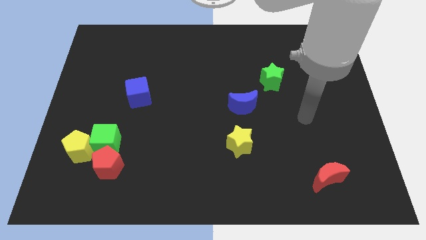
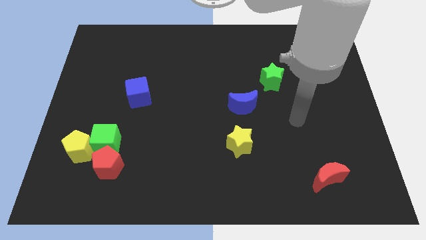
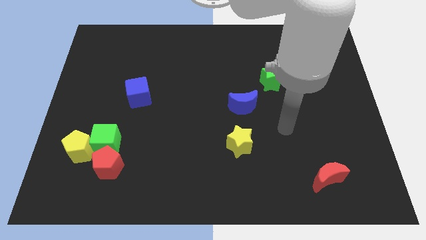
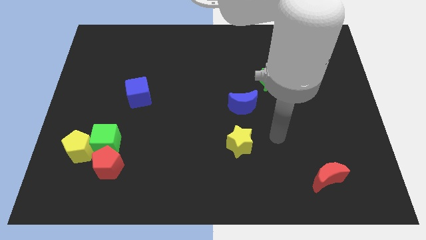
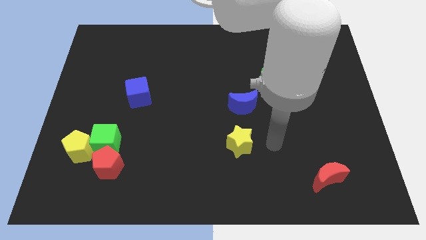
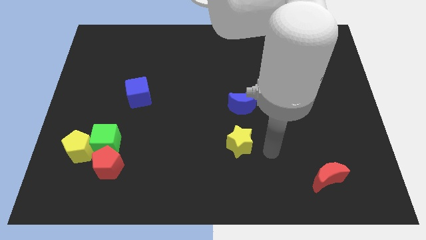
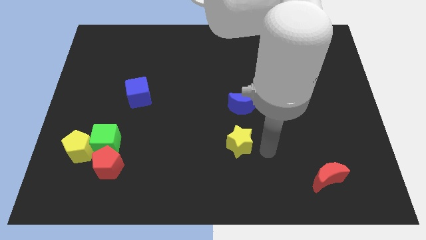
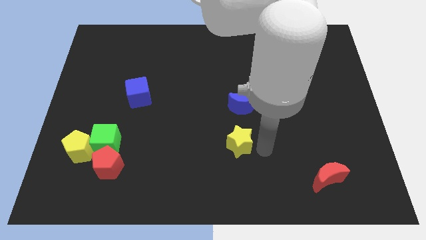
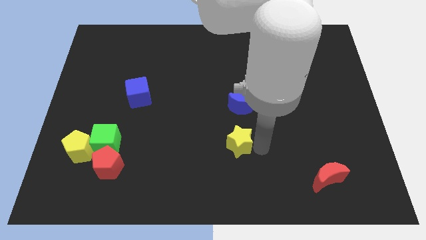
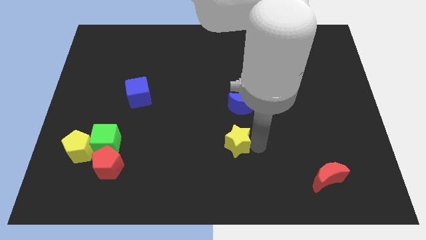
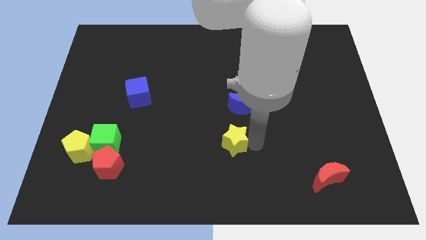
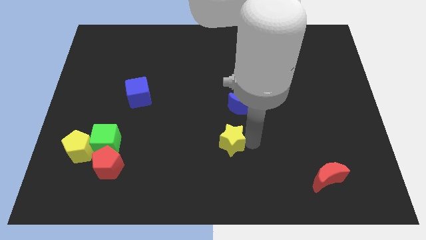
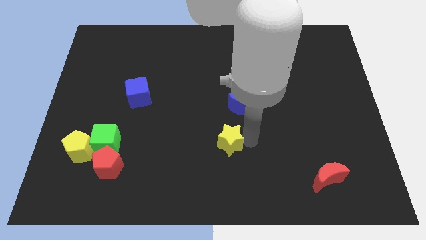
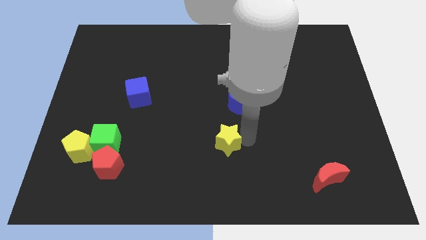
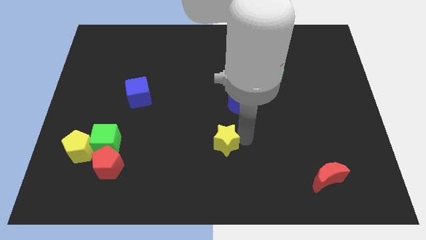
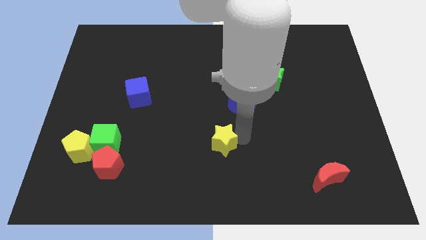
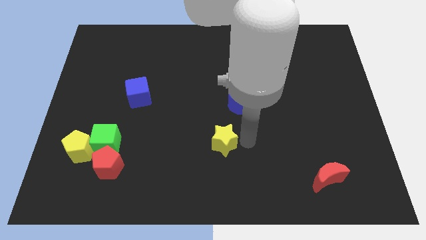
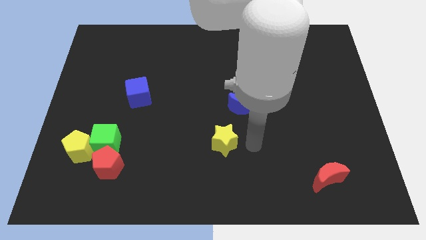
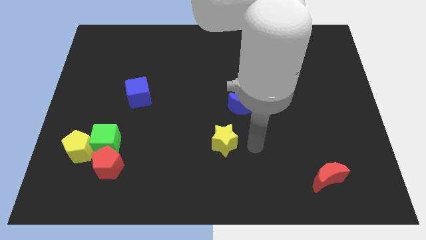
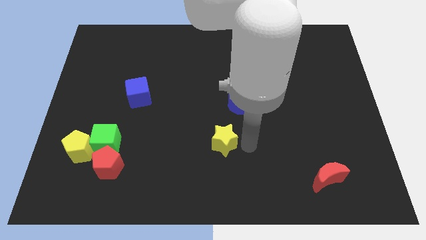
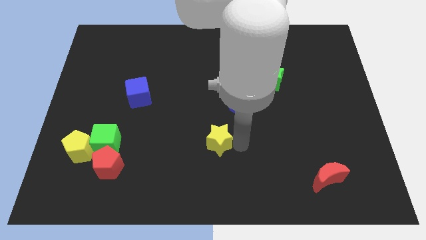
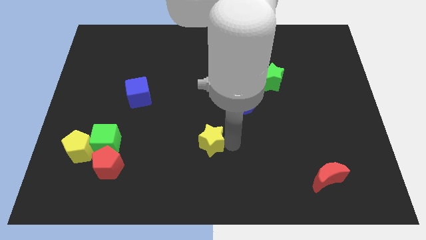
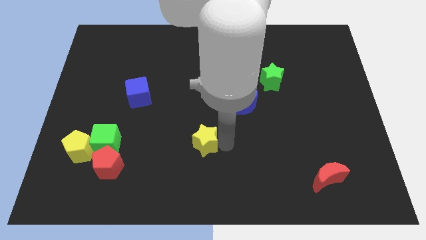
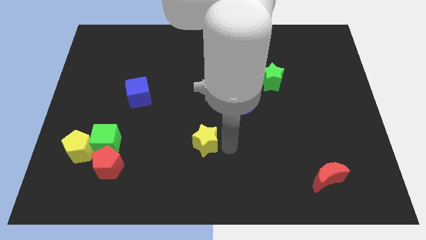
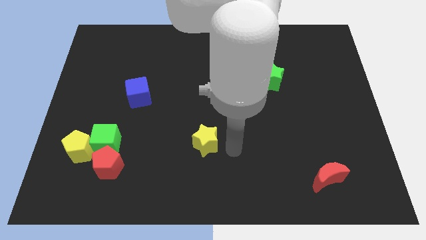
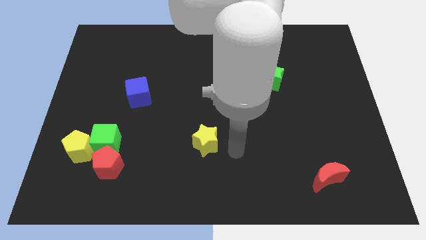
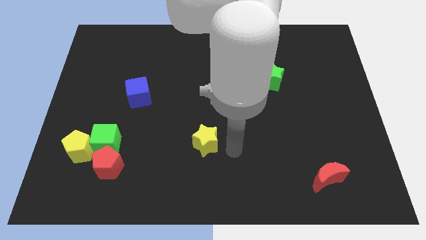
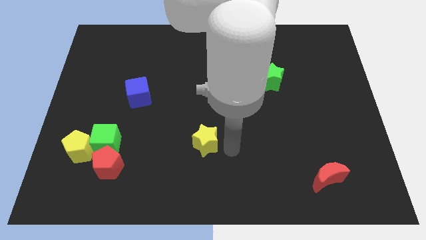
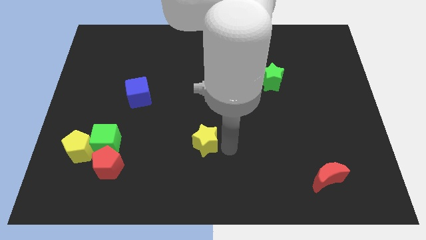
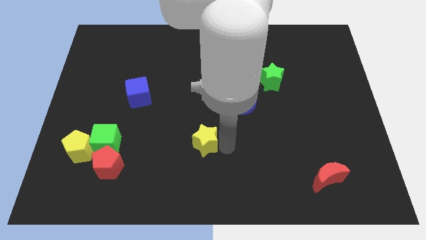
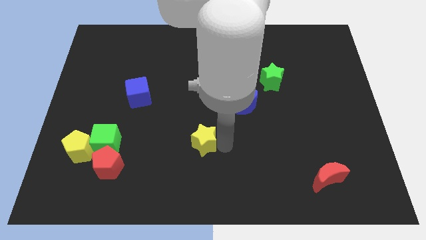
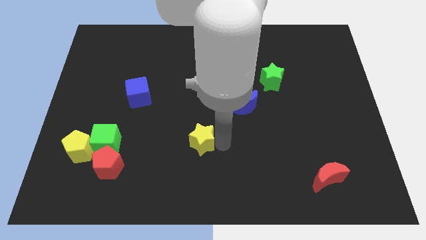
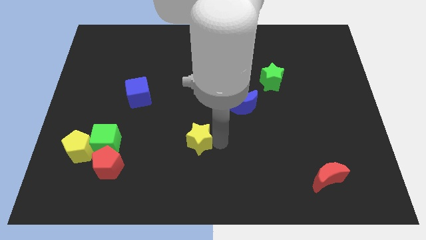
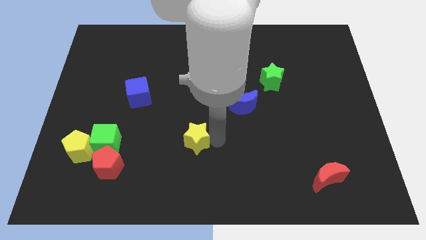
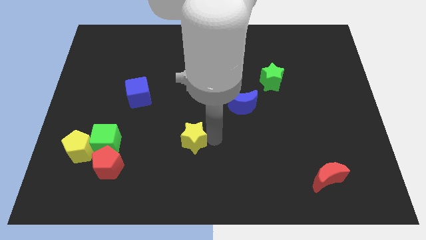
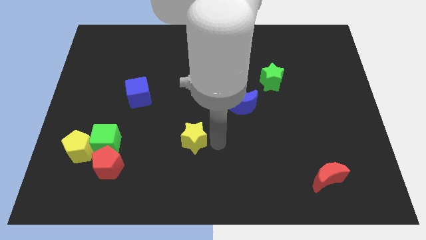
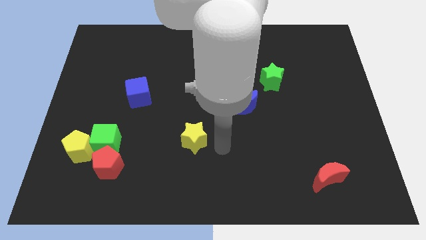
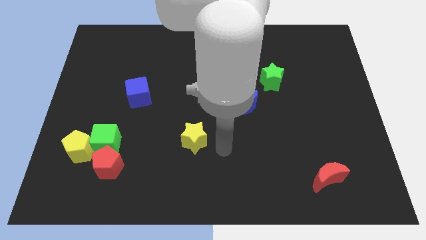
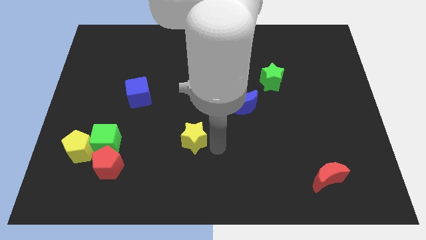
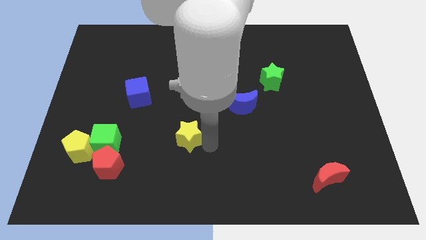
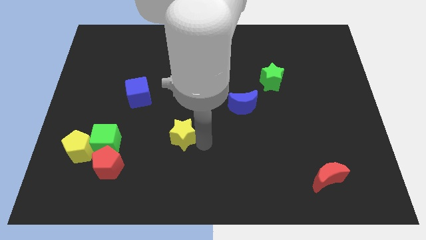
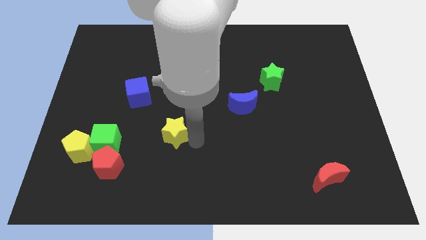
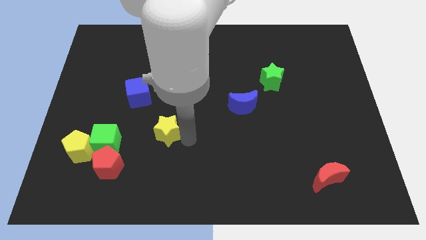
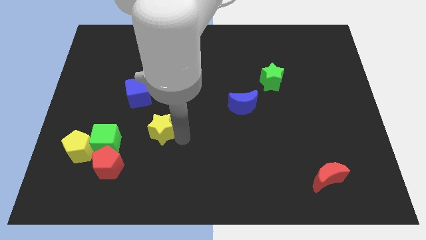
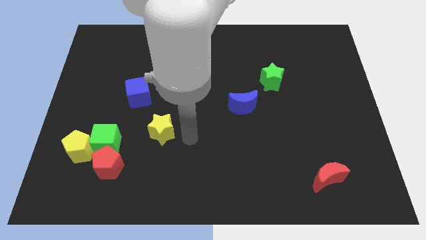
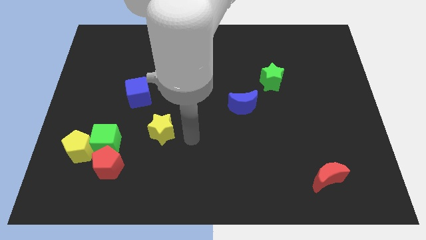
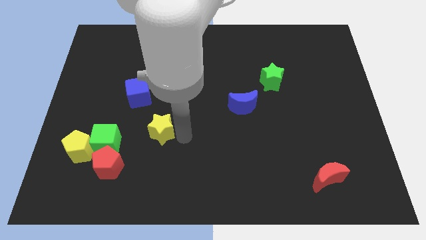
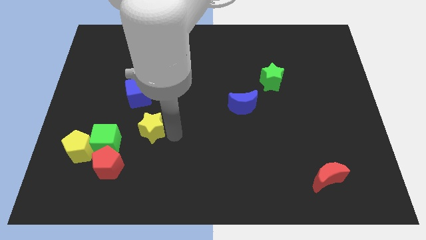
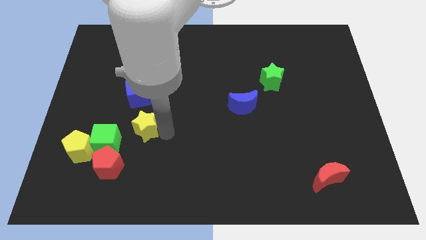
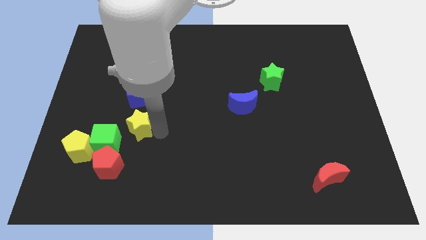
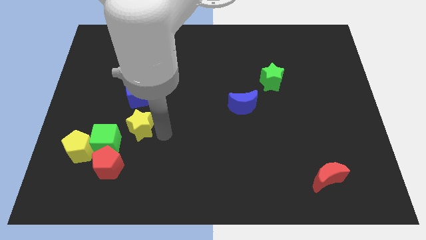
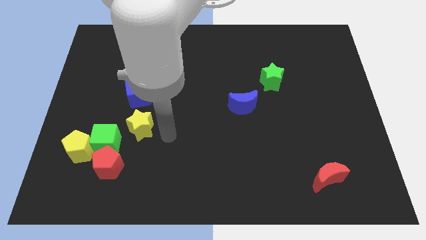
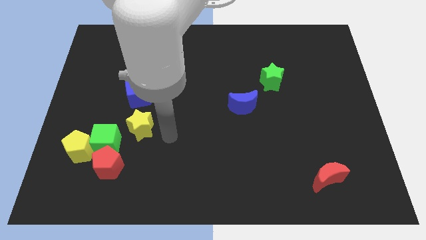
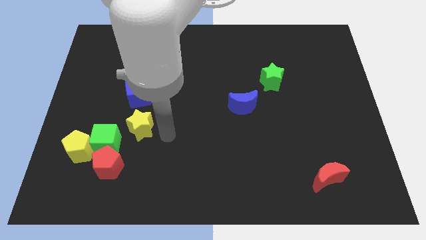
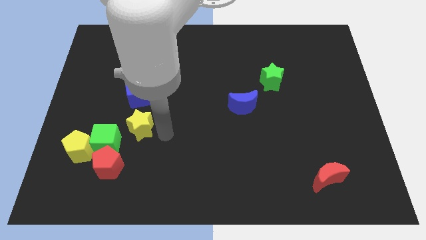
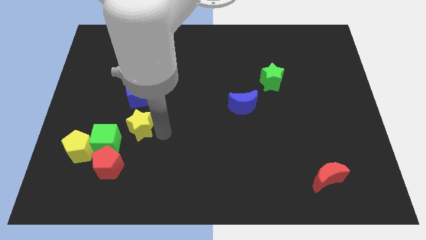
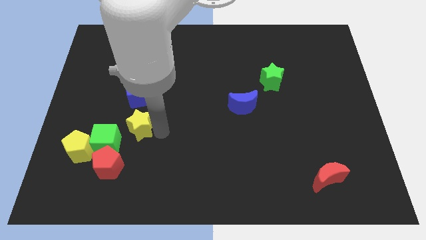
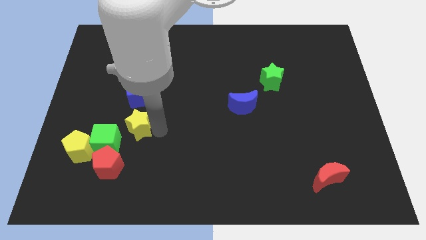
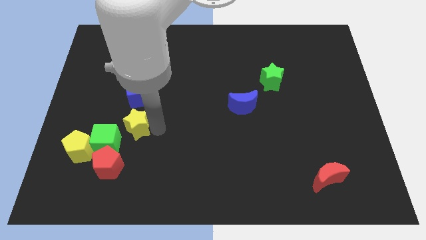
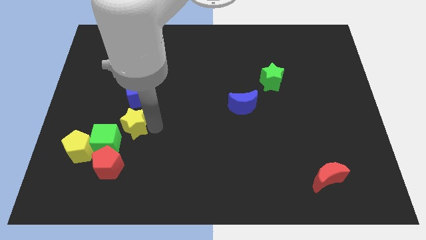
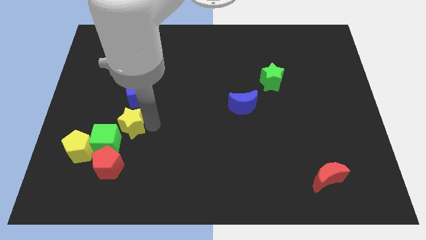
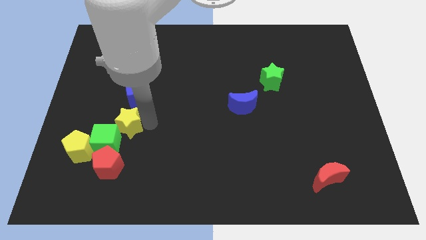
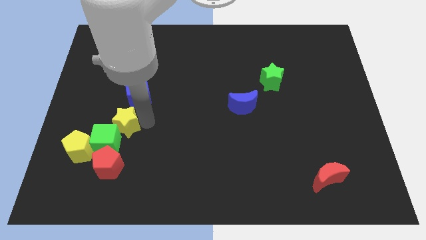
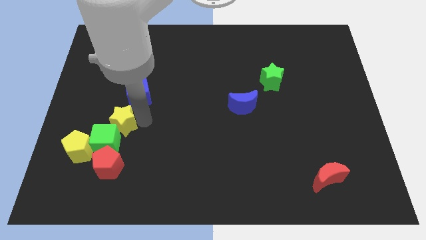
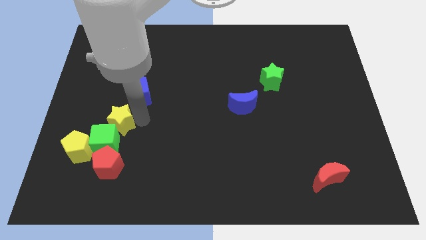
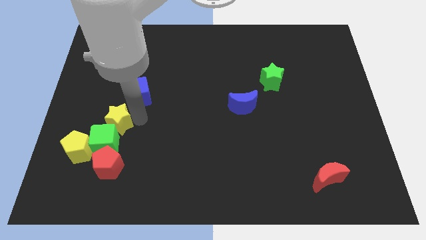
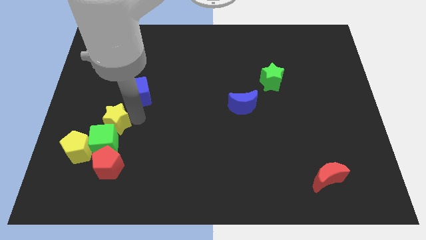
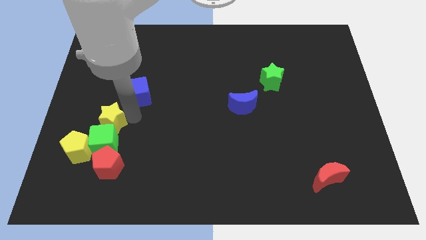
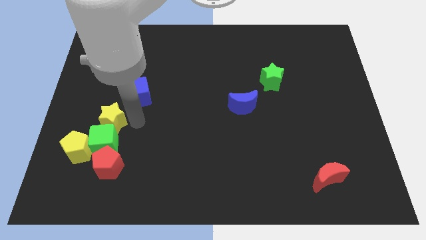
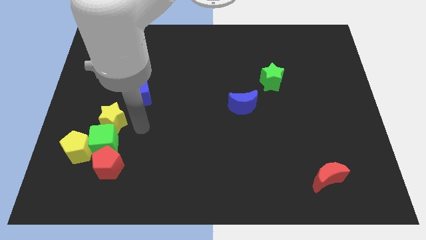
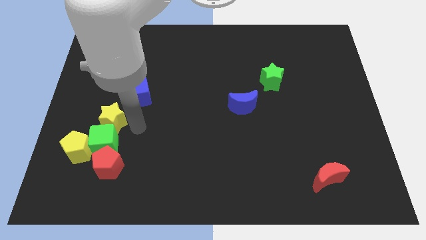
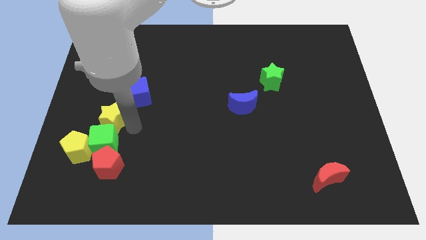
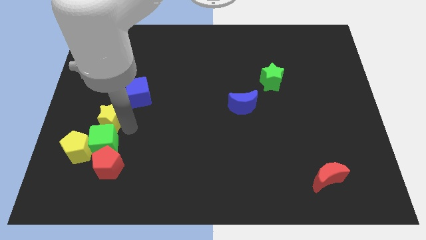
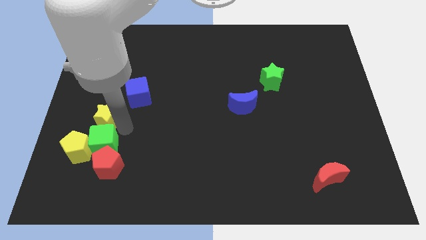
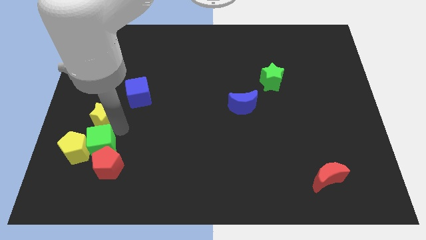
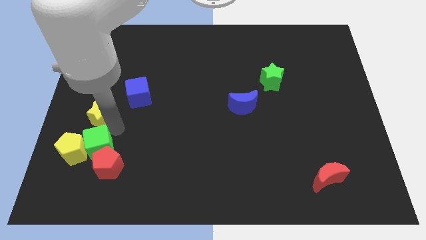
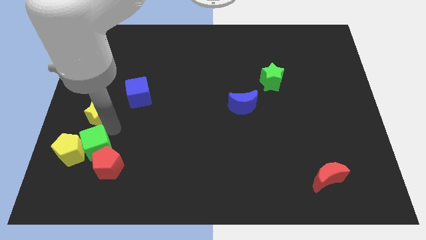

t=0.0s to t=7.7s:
slide the yellow star to the left side
